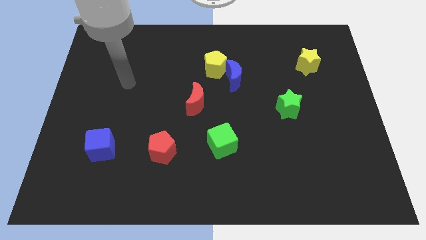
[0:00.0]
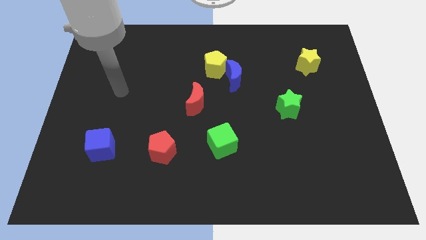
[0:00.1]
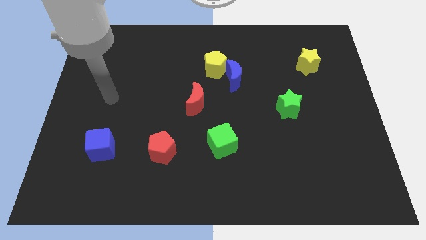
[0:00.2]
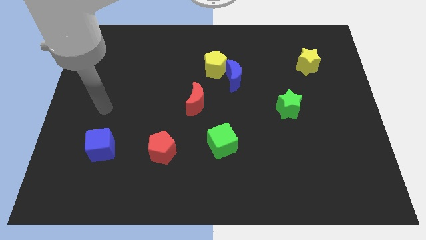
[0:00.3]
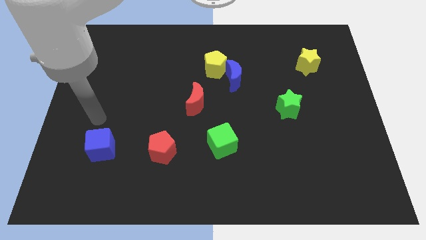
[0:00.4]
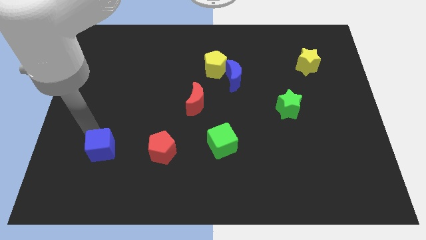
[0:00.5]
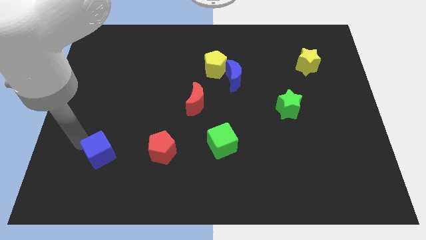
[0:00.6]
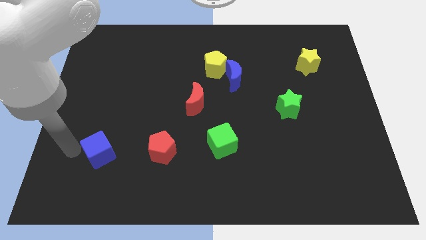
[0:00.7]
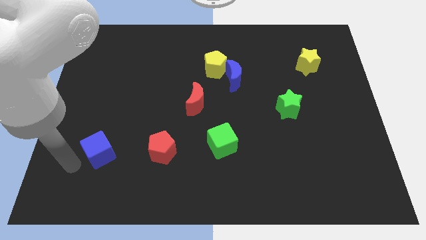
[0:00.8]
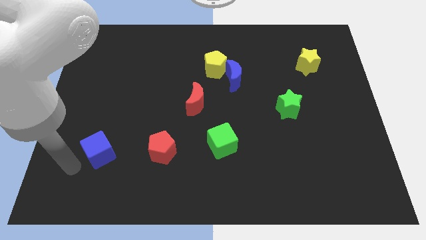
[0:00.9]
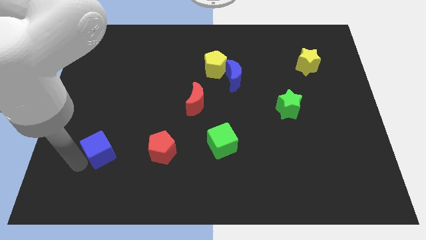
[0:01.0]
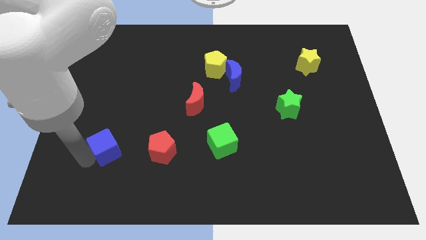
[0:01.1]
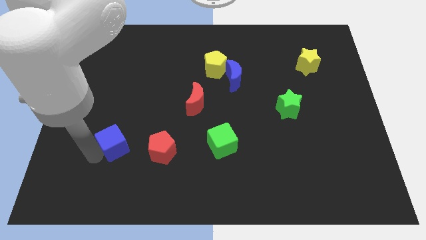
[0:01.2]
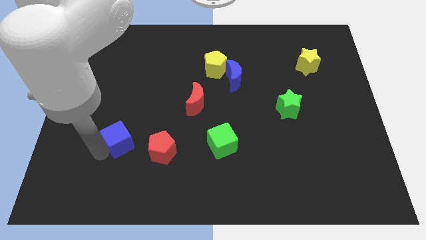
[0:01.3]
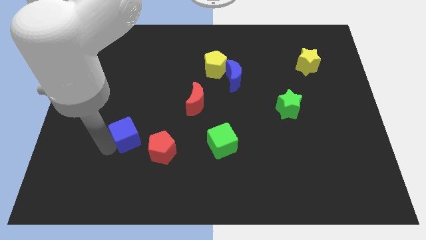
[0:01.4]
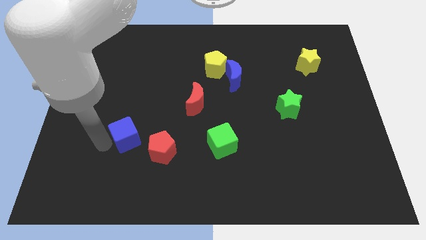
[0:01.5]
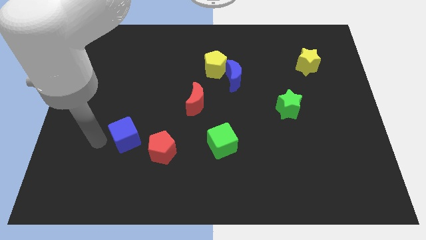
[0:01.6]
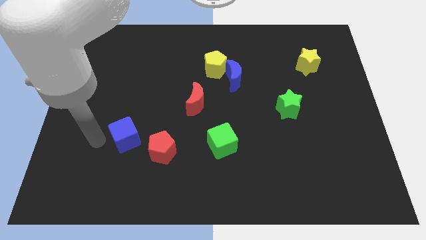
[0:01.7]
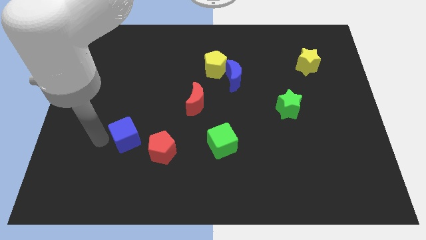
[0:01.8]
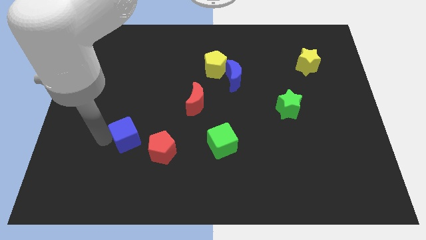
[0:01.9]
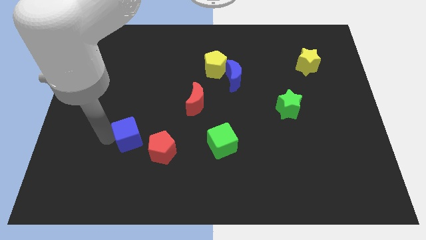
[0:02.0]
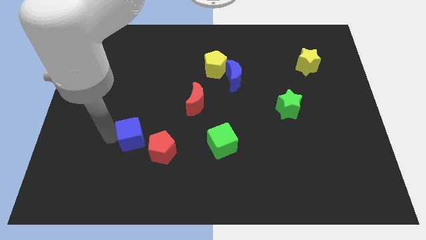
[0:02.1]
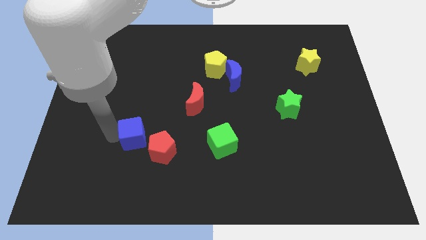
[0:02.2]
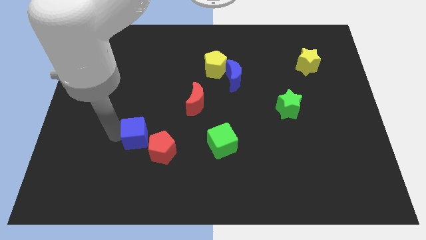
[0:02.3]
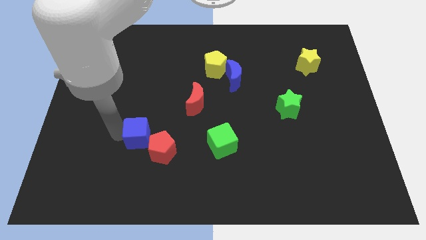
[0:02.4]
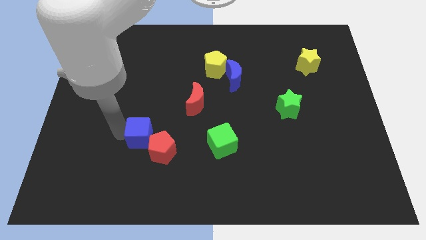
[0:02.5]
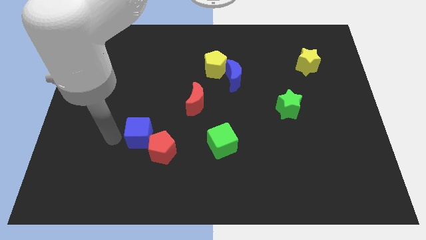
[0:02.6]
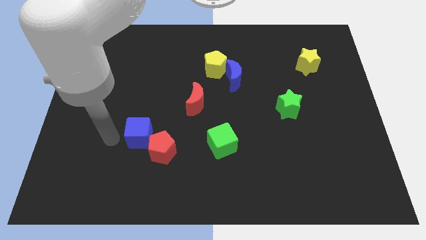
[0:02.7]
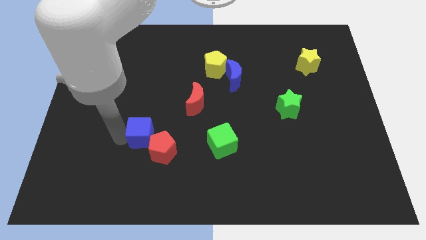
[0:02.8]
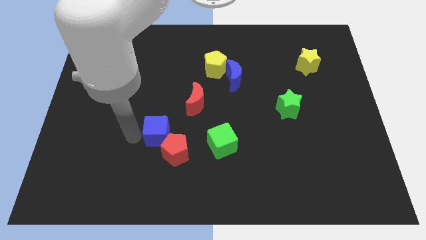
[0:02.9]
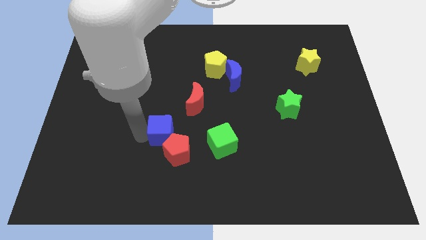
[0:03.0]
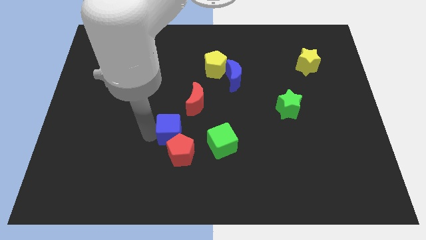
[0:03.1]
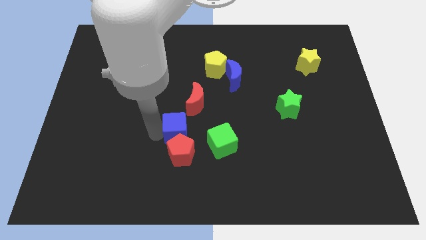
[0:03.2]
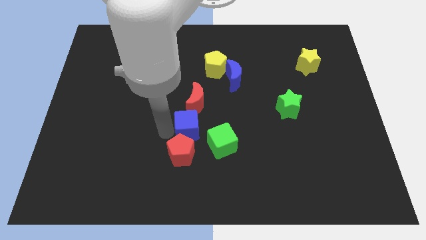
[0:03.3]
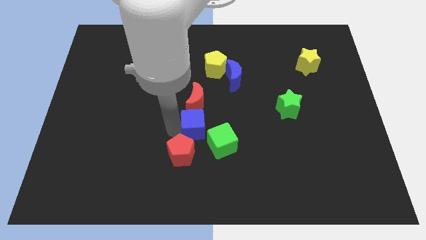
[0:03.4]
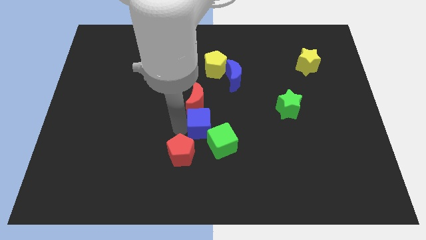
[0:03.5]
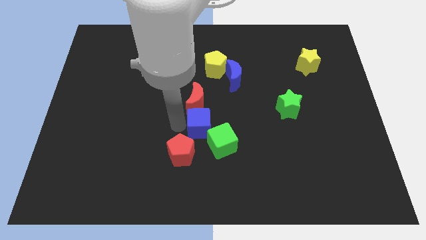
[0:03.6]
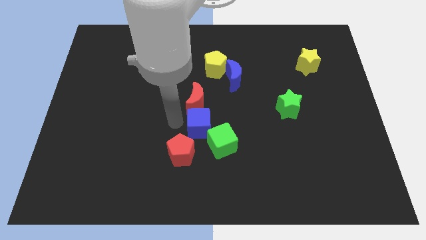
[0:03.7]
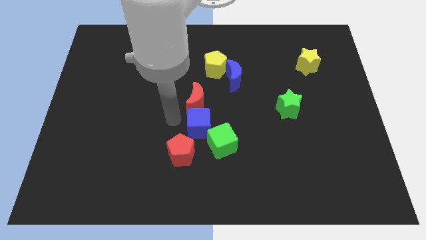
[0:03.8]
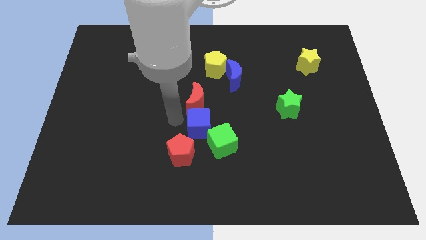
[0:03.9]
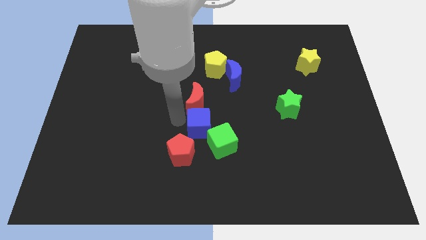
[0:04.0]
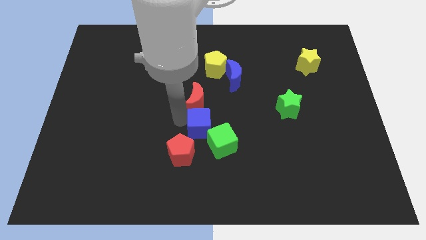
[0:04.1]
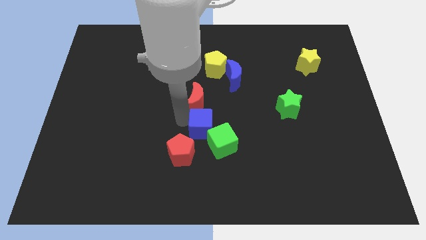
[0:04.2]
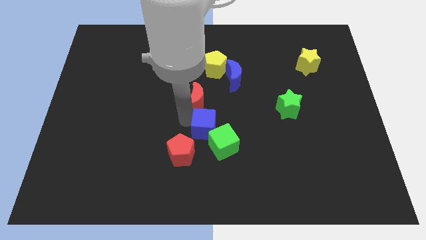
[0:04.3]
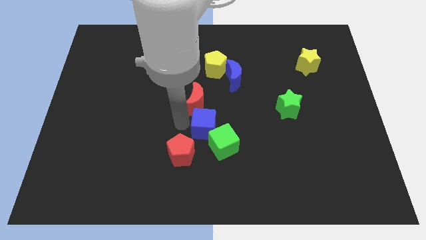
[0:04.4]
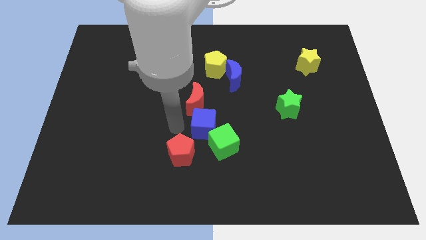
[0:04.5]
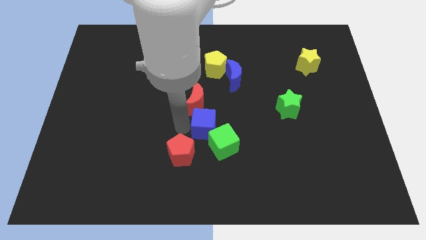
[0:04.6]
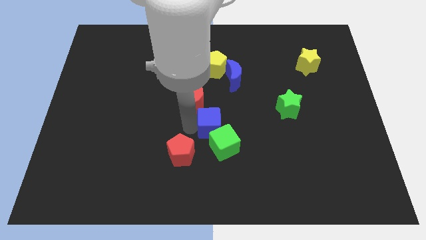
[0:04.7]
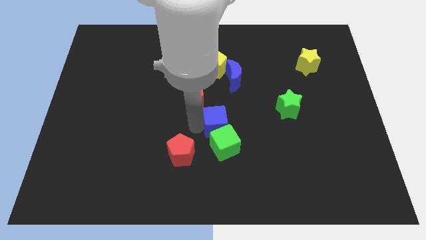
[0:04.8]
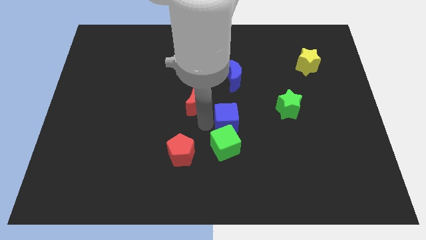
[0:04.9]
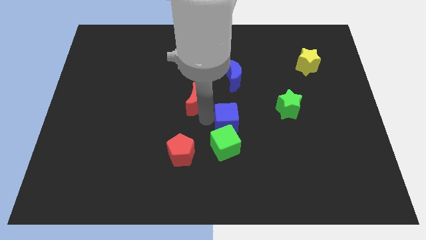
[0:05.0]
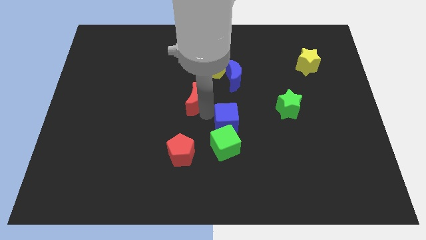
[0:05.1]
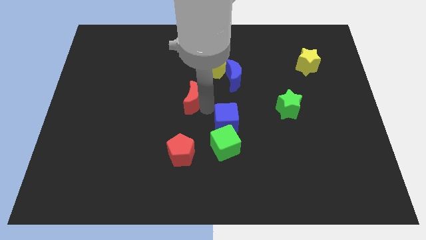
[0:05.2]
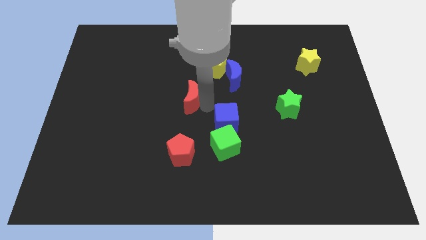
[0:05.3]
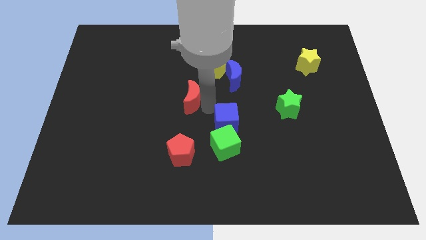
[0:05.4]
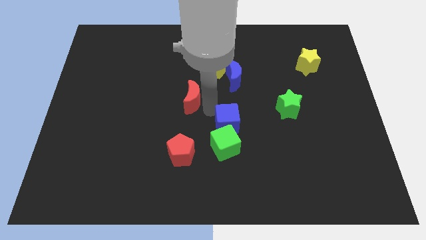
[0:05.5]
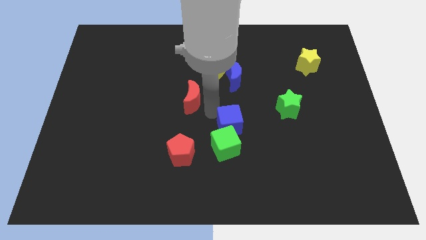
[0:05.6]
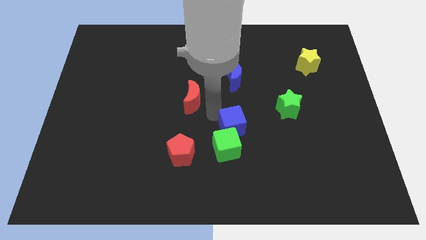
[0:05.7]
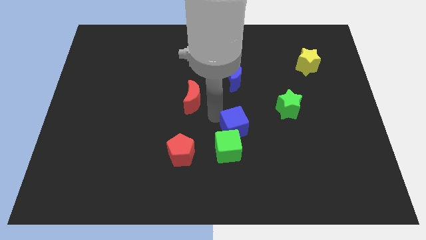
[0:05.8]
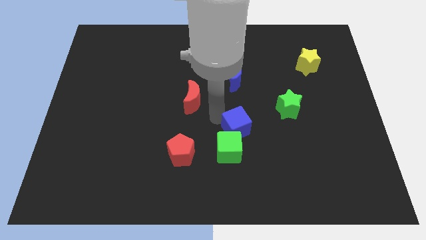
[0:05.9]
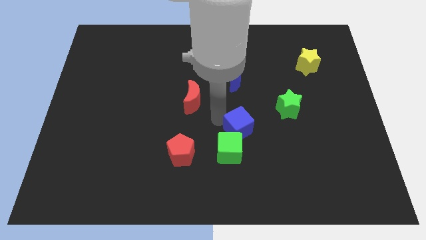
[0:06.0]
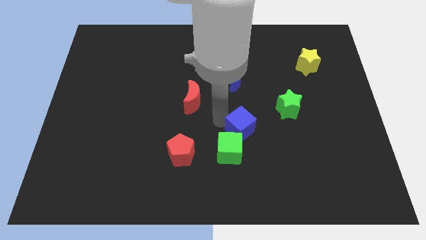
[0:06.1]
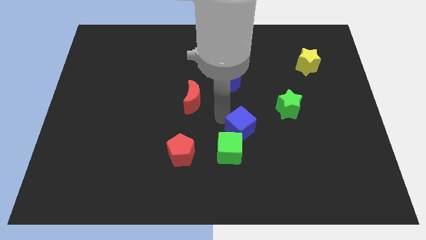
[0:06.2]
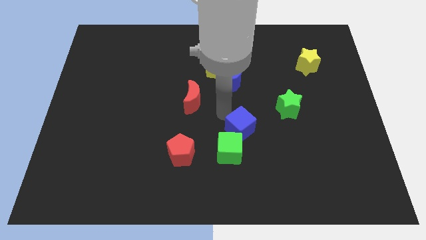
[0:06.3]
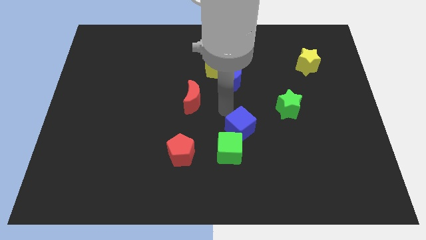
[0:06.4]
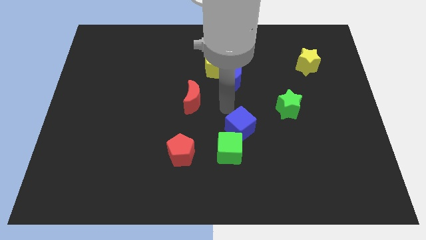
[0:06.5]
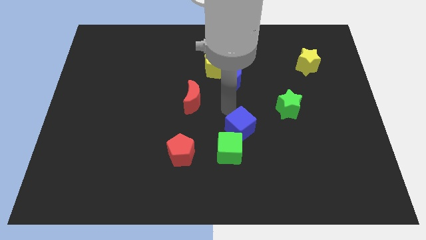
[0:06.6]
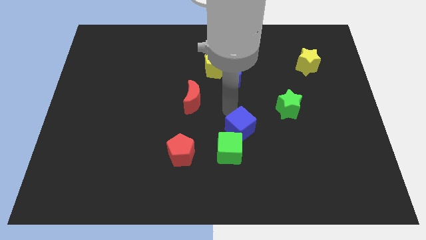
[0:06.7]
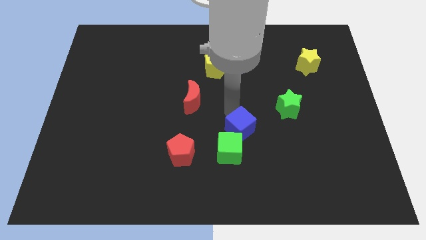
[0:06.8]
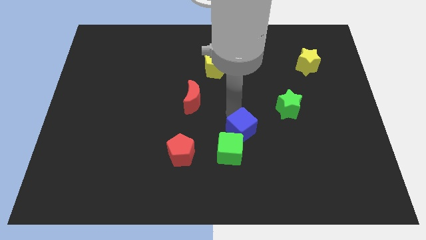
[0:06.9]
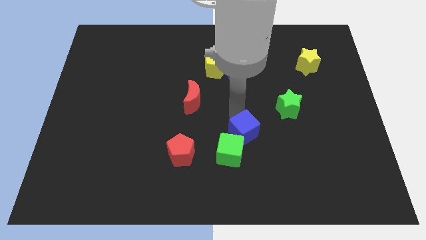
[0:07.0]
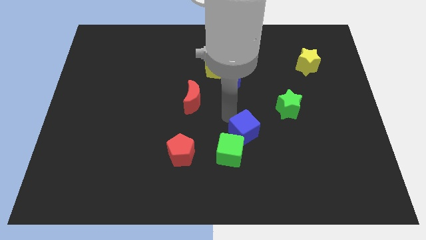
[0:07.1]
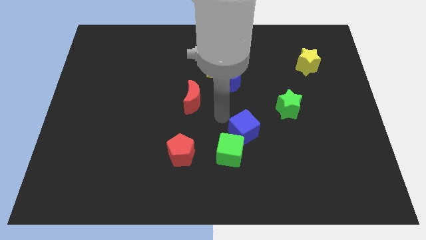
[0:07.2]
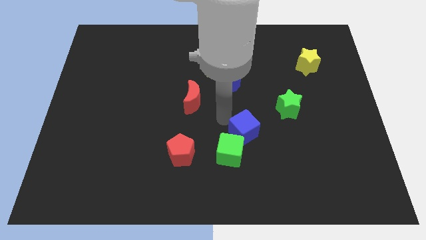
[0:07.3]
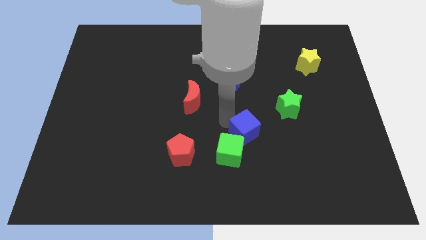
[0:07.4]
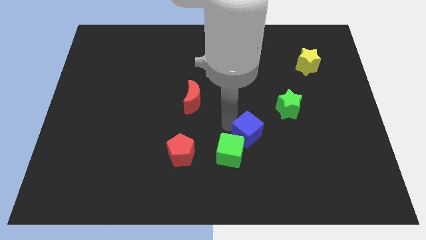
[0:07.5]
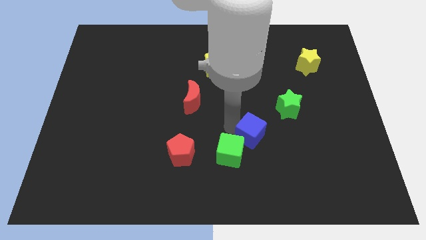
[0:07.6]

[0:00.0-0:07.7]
slide the blue cube right of the green cube
